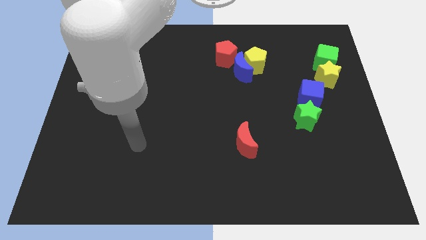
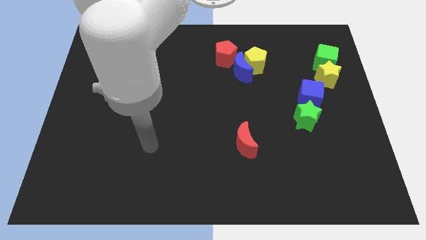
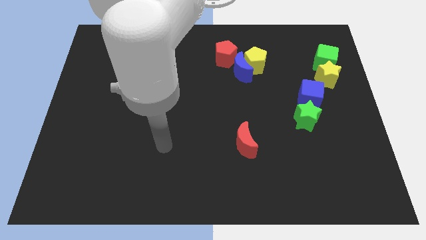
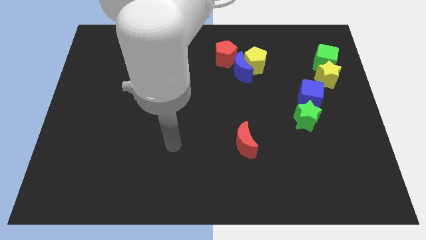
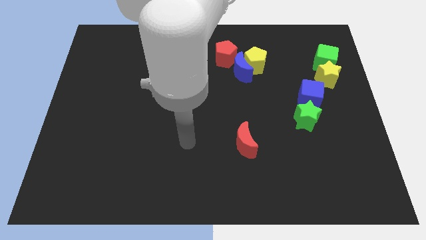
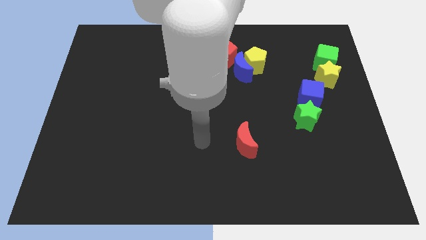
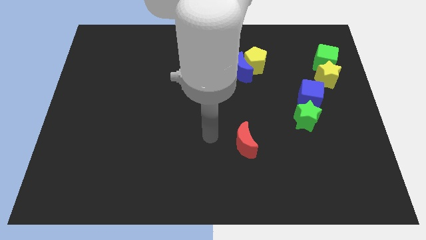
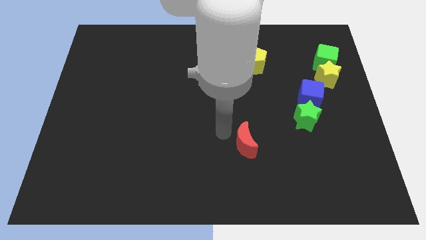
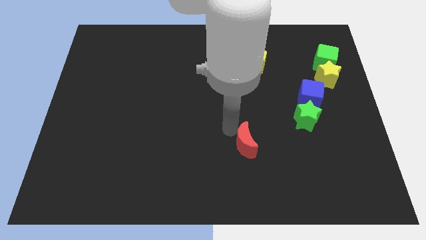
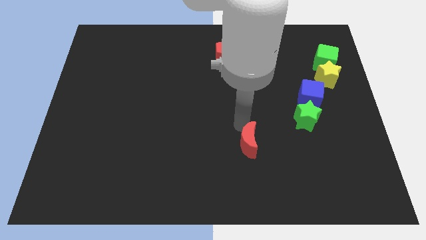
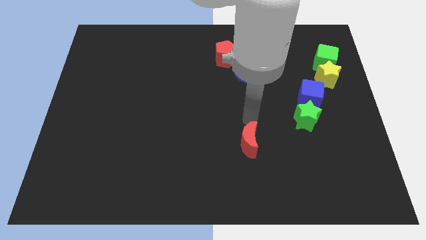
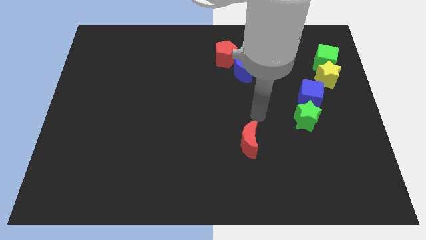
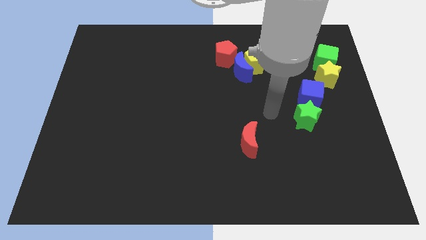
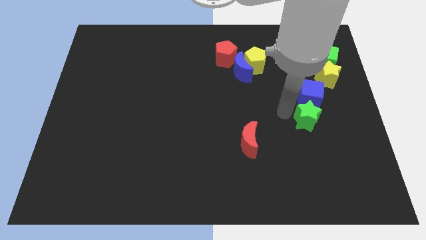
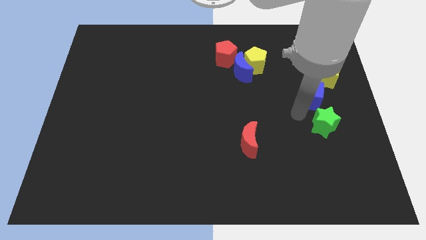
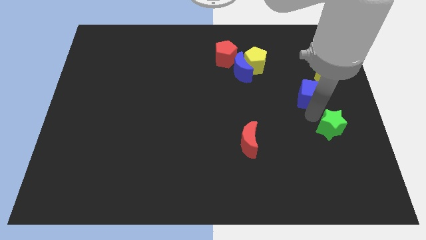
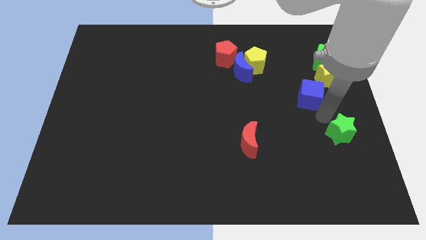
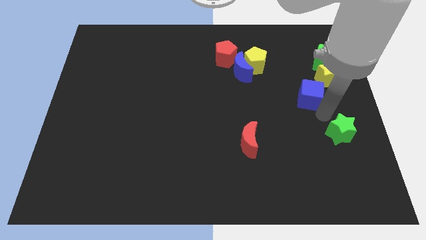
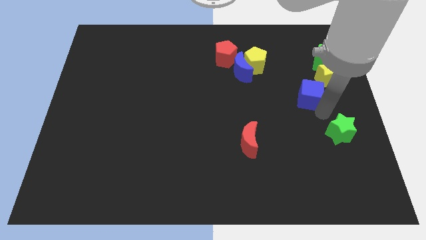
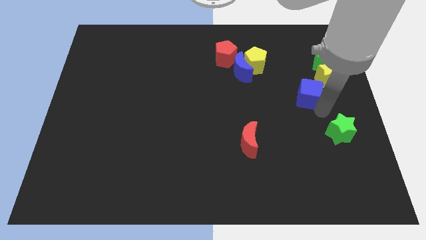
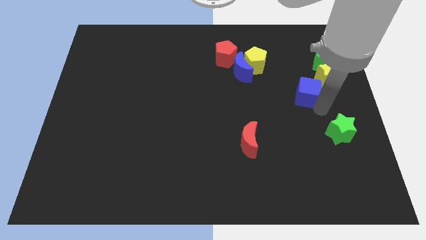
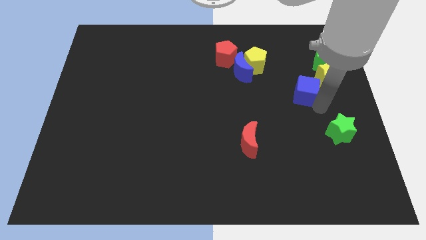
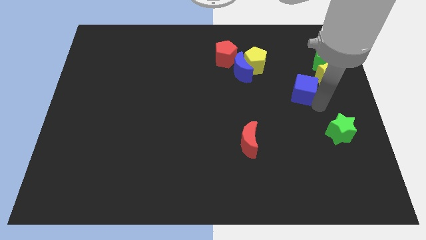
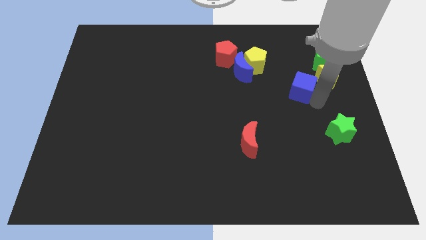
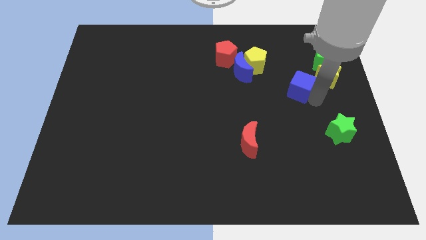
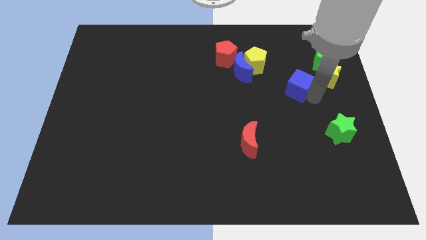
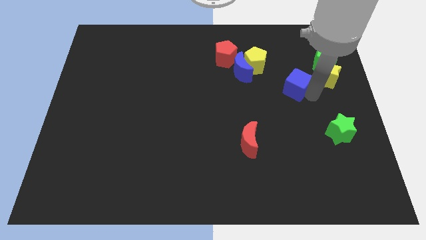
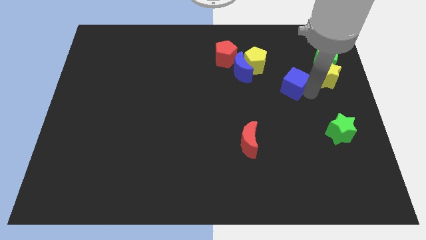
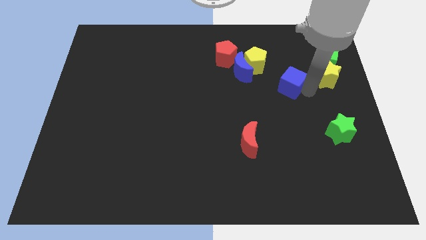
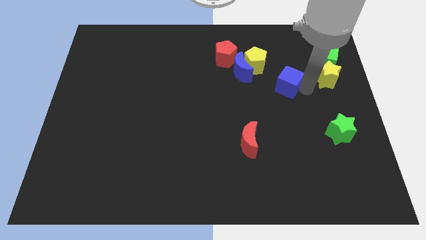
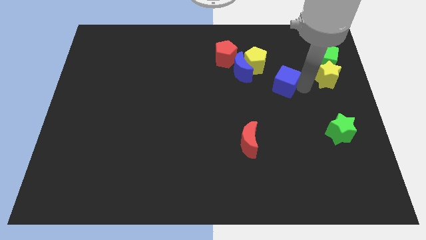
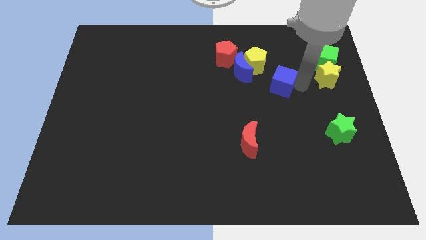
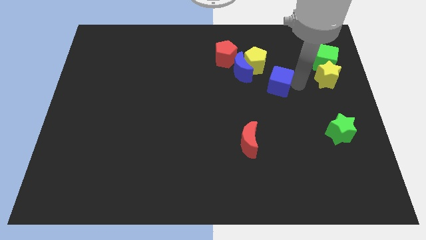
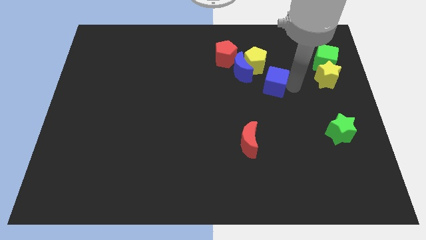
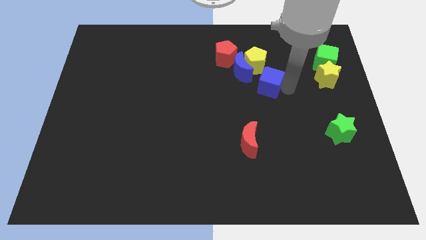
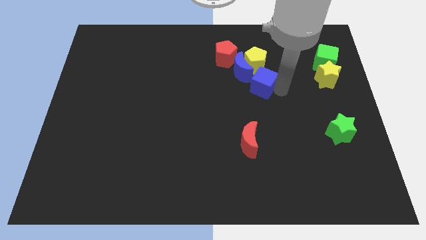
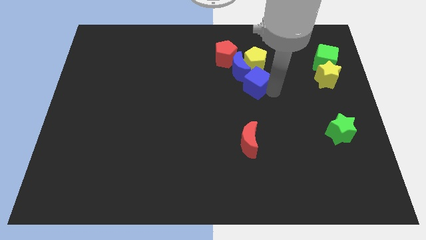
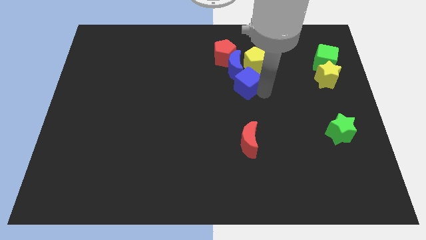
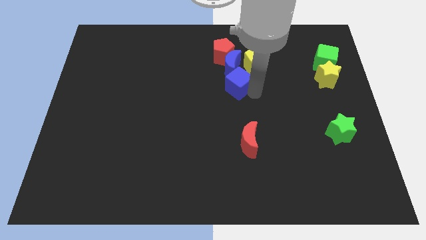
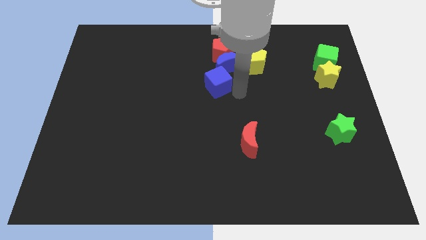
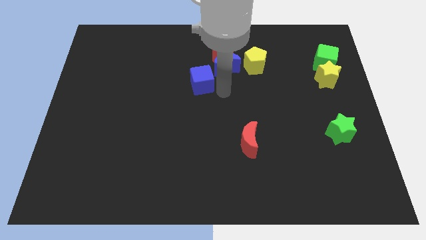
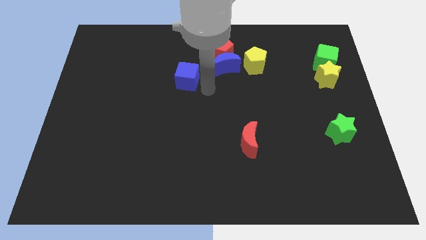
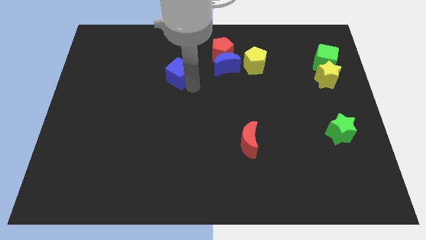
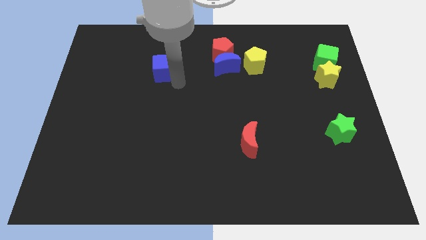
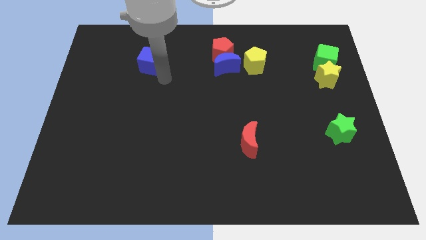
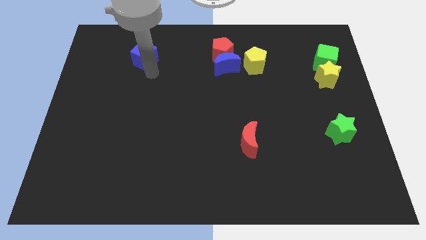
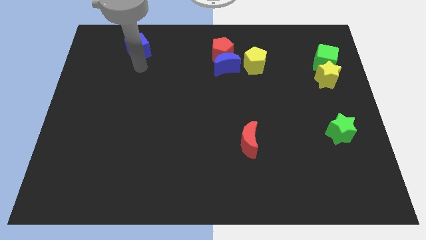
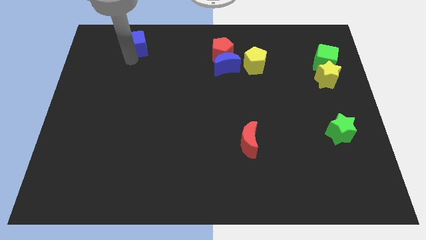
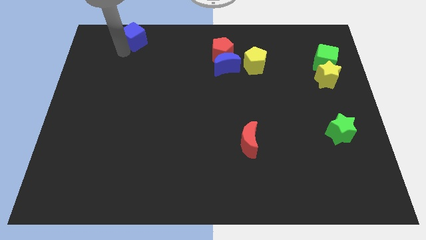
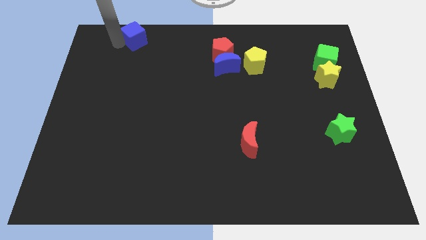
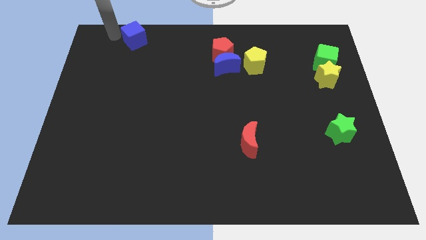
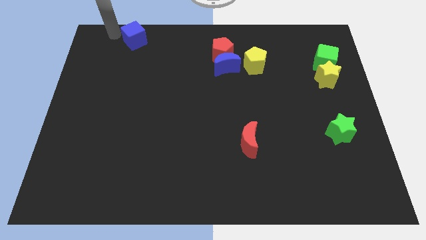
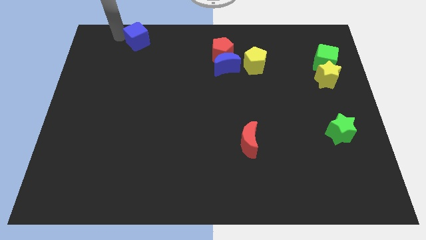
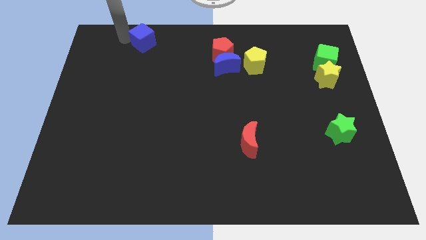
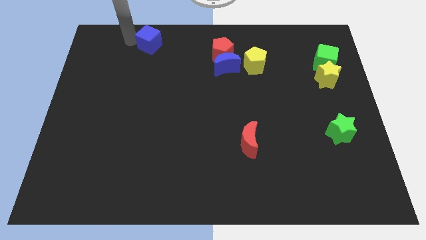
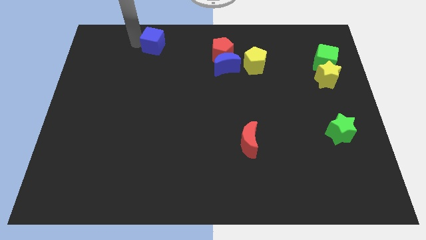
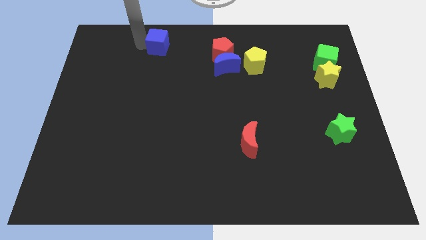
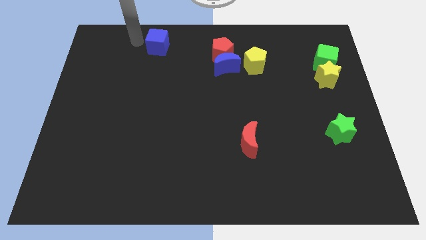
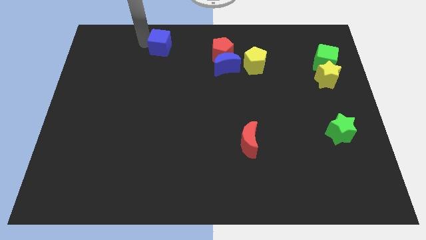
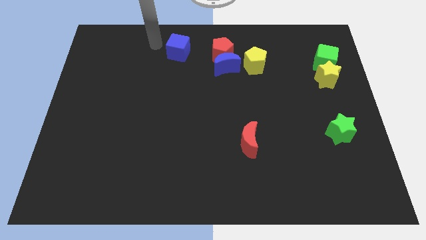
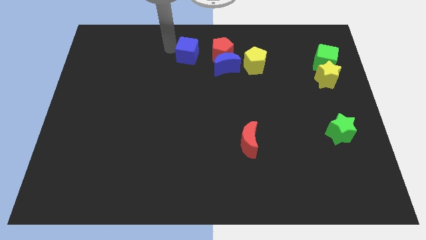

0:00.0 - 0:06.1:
push the blue cube to the top side
